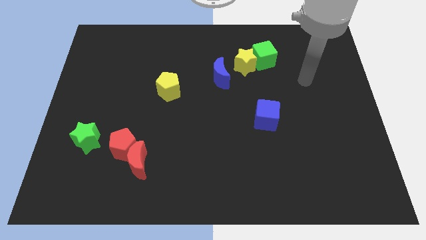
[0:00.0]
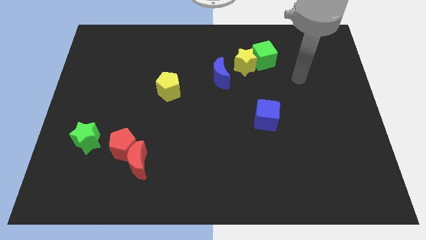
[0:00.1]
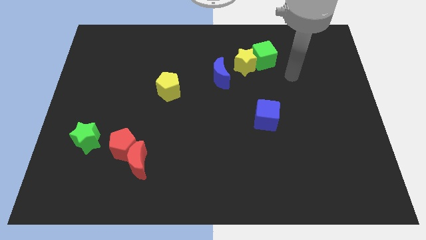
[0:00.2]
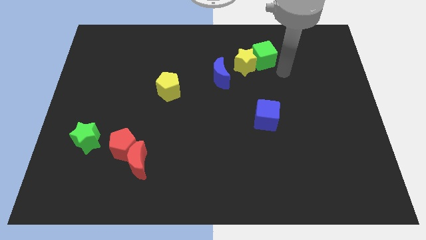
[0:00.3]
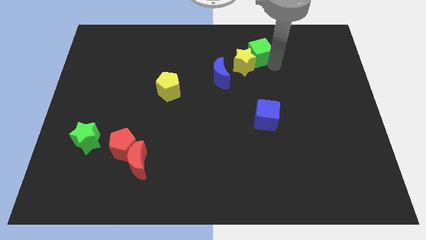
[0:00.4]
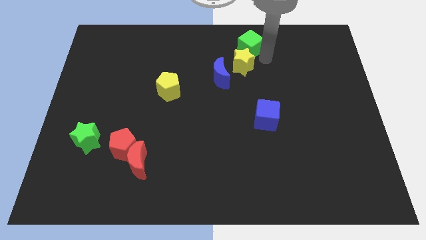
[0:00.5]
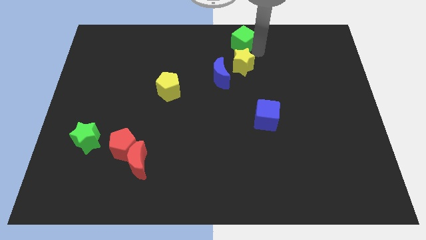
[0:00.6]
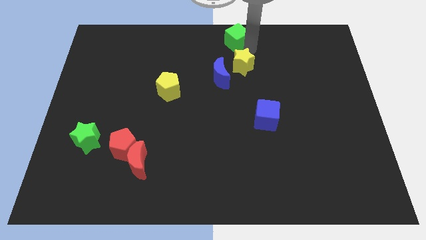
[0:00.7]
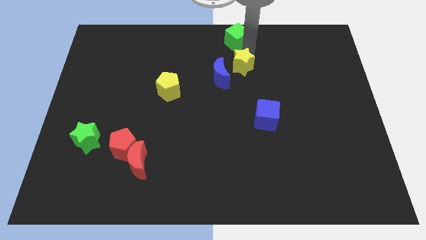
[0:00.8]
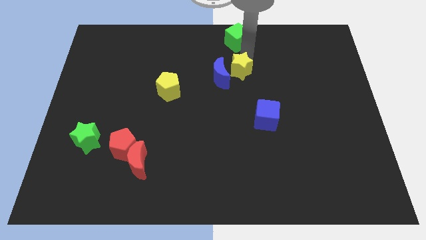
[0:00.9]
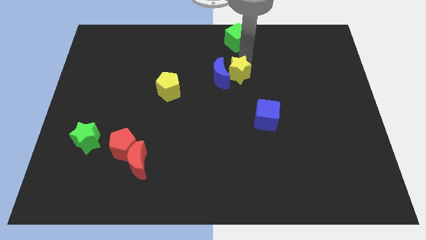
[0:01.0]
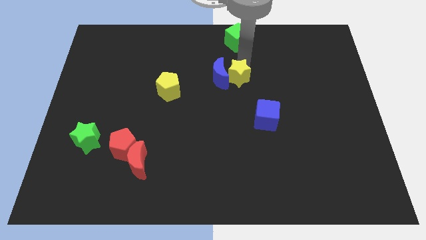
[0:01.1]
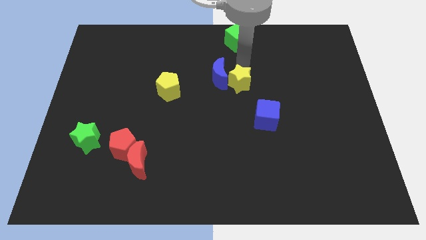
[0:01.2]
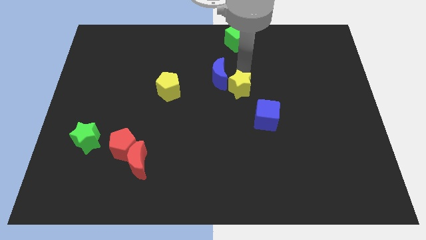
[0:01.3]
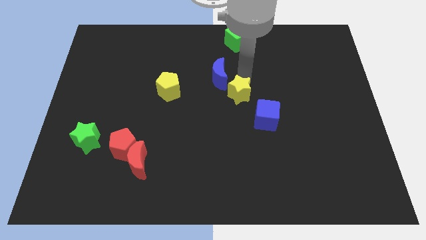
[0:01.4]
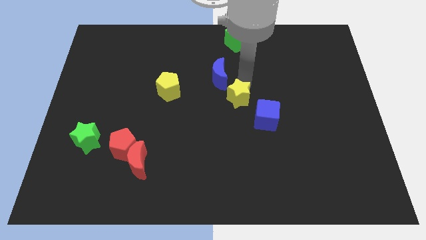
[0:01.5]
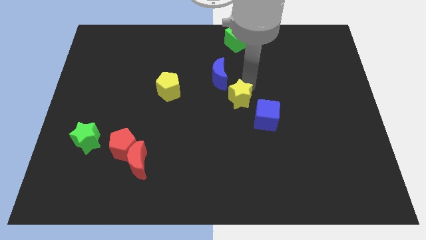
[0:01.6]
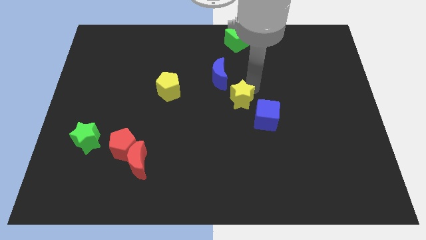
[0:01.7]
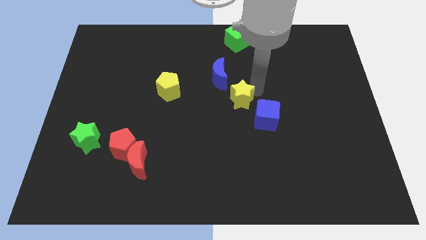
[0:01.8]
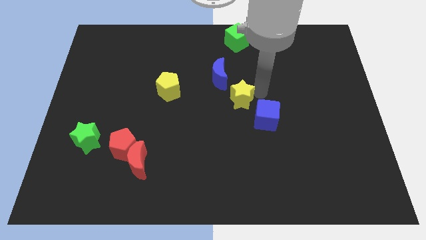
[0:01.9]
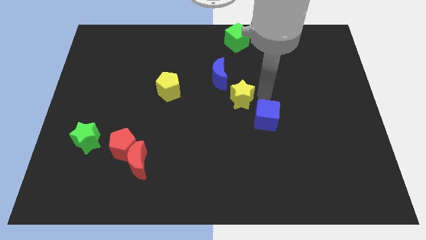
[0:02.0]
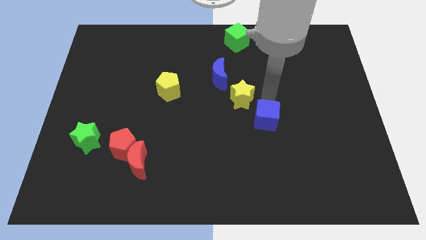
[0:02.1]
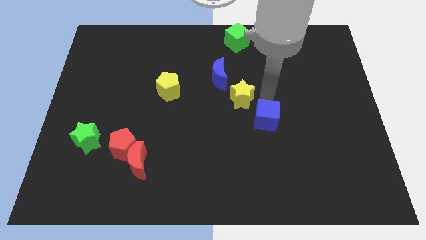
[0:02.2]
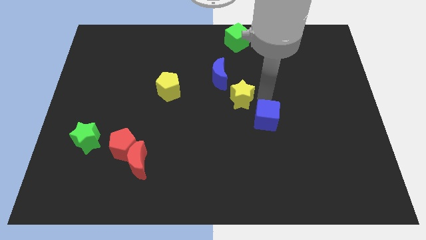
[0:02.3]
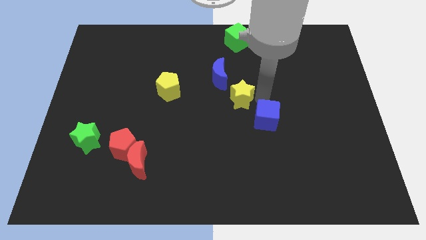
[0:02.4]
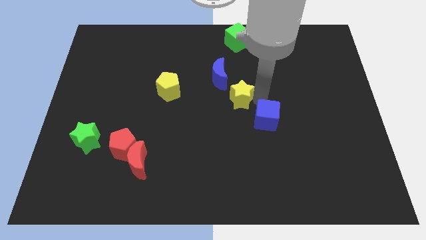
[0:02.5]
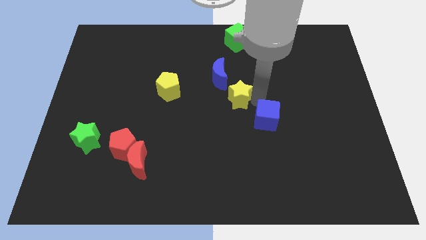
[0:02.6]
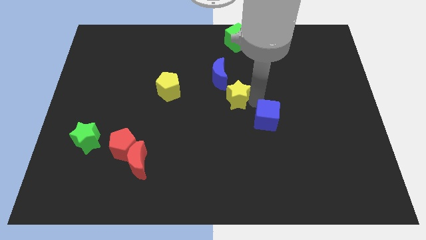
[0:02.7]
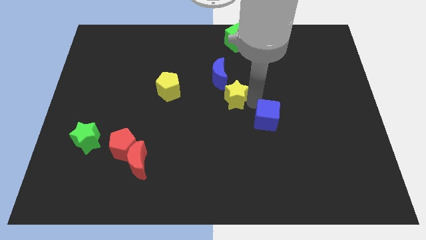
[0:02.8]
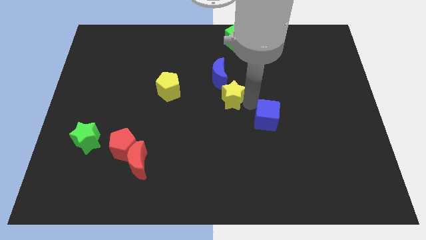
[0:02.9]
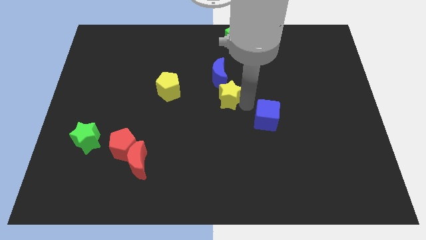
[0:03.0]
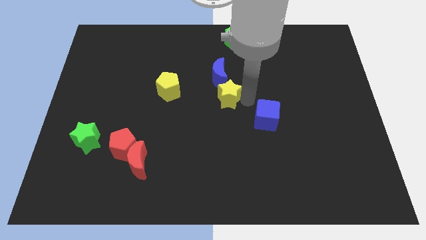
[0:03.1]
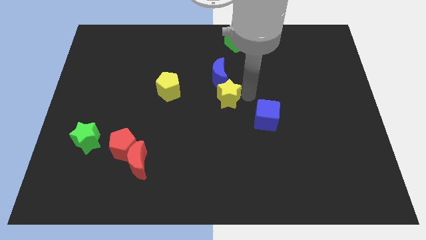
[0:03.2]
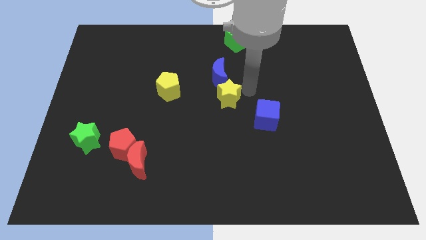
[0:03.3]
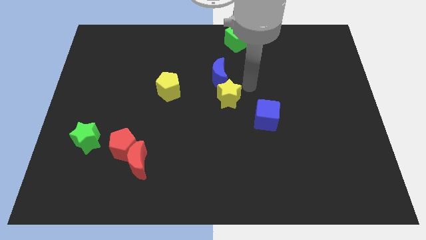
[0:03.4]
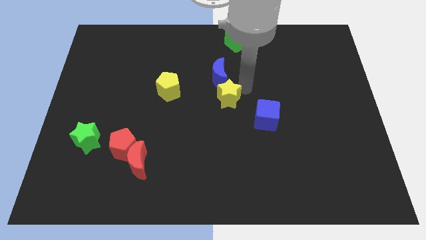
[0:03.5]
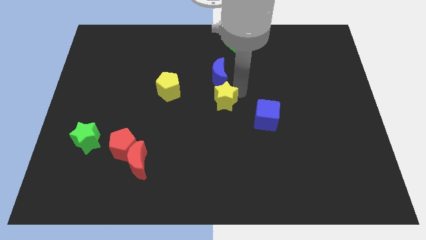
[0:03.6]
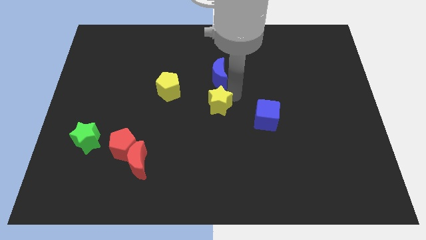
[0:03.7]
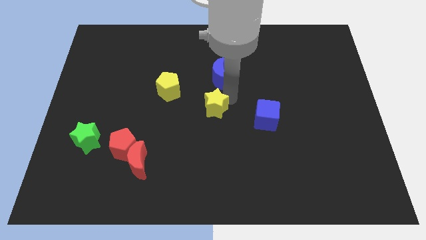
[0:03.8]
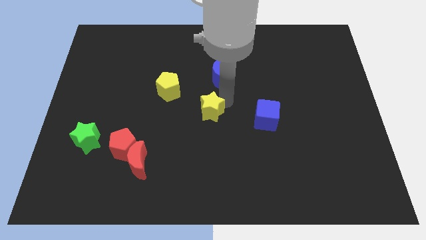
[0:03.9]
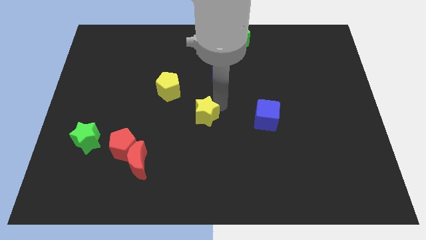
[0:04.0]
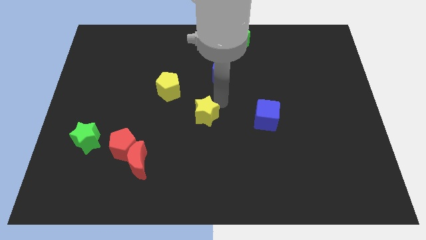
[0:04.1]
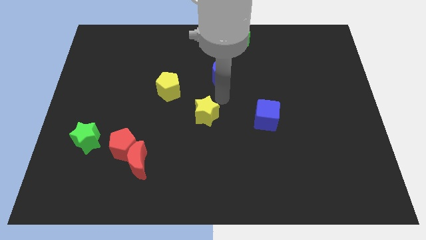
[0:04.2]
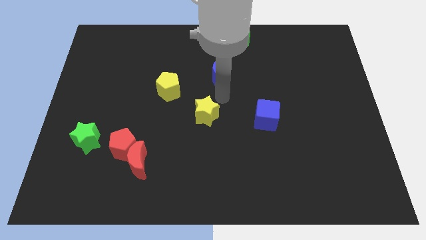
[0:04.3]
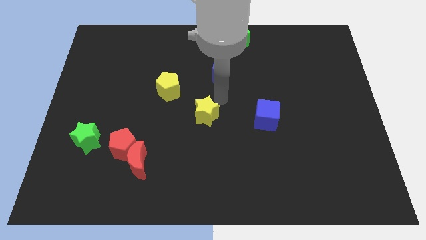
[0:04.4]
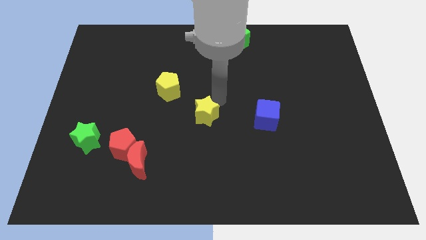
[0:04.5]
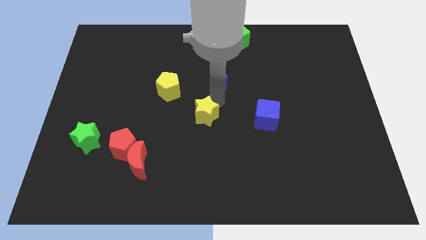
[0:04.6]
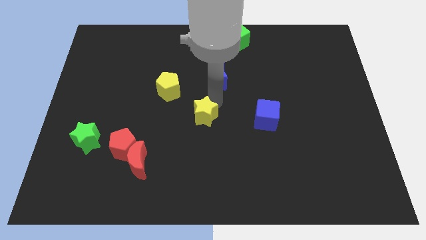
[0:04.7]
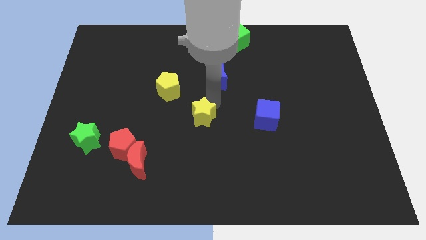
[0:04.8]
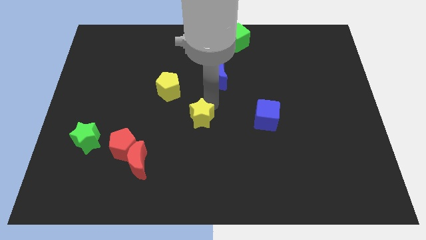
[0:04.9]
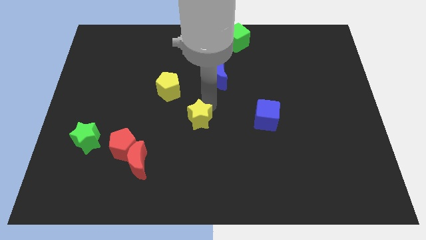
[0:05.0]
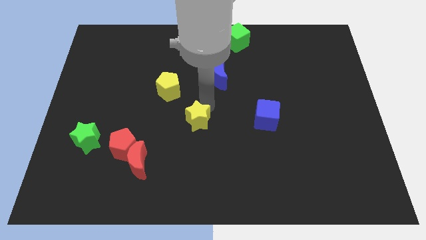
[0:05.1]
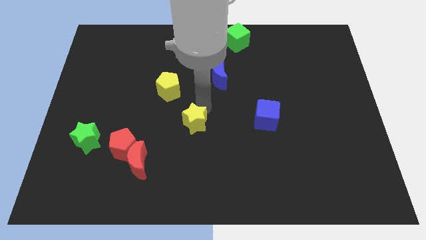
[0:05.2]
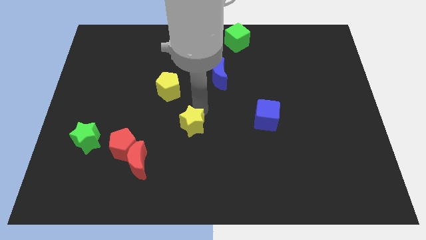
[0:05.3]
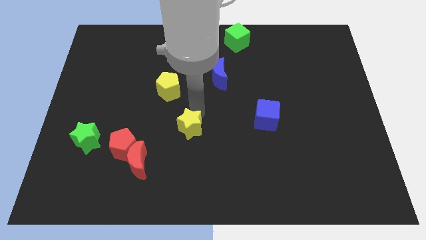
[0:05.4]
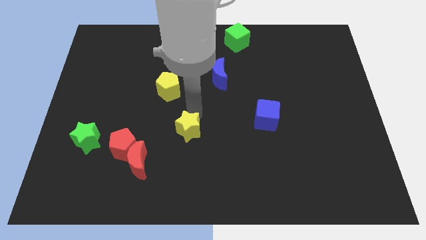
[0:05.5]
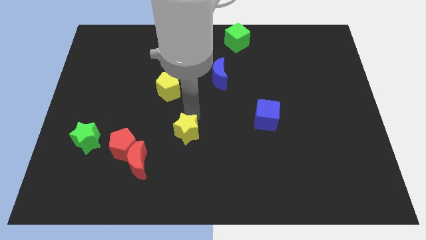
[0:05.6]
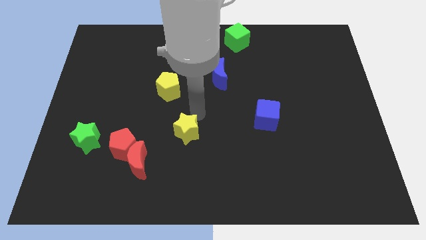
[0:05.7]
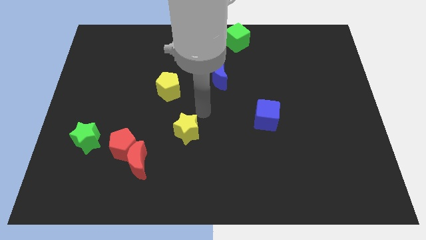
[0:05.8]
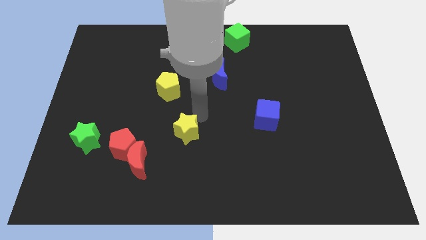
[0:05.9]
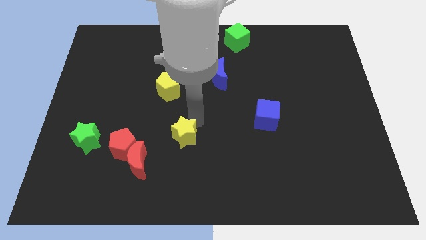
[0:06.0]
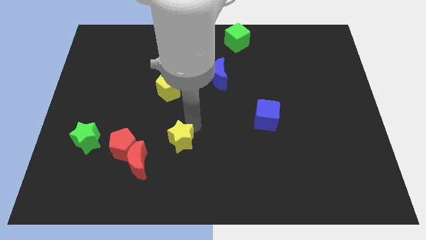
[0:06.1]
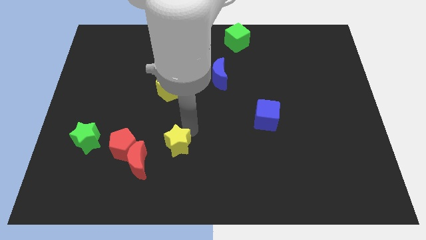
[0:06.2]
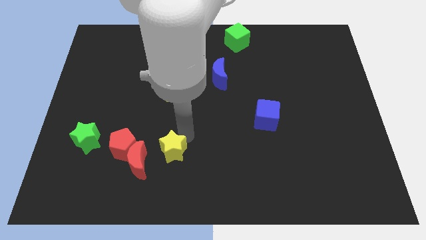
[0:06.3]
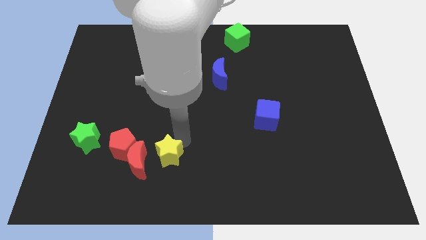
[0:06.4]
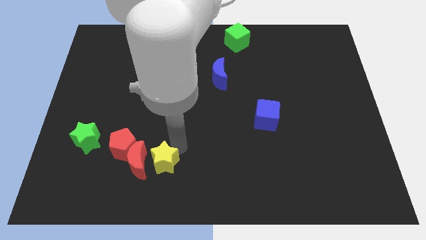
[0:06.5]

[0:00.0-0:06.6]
move the yellow star diagonally down and to the right of the red pentagon

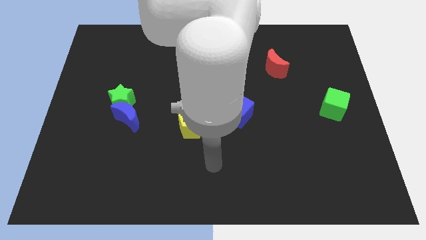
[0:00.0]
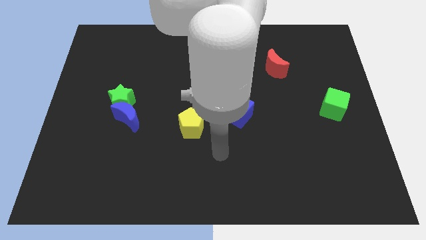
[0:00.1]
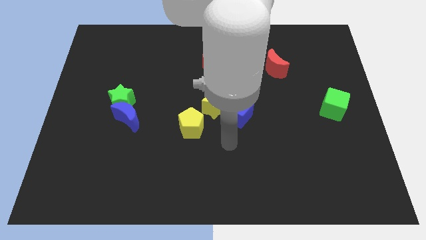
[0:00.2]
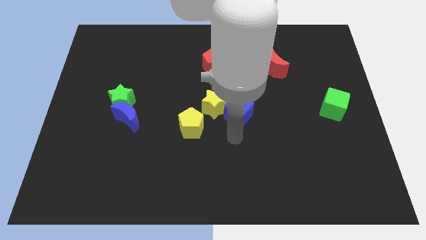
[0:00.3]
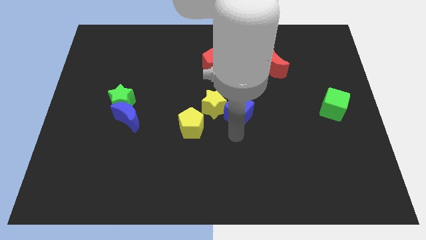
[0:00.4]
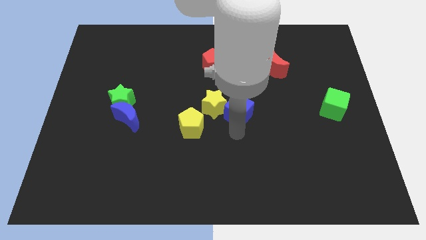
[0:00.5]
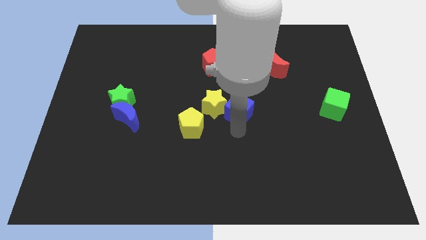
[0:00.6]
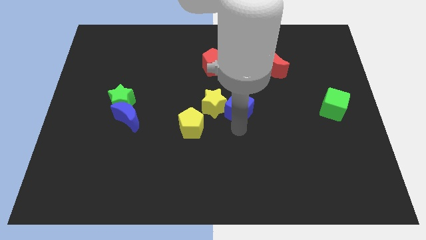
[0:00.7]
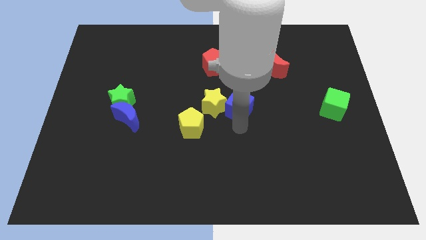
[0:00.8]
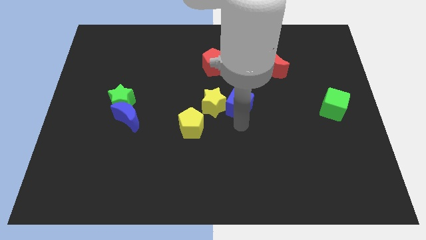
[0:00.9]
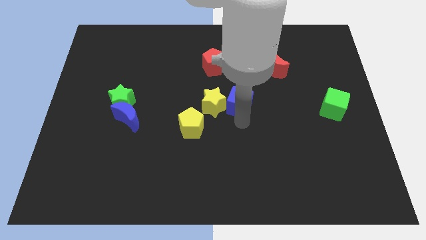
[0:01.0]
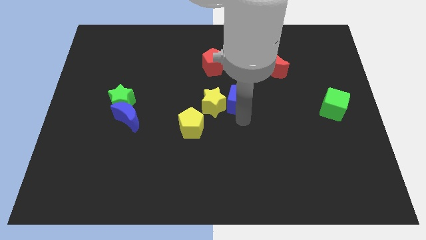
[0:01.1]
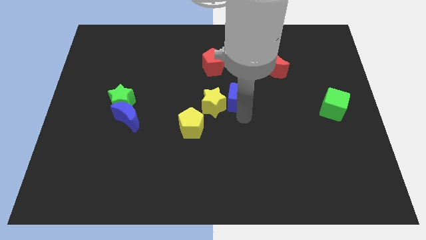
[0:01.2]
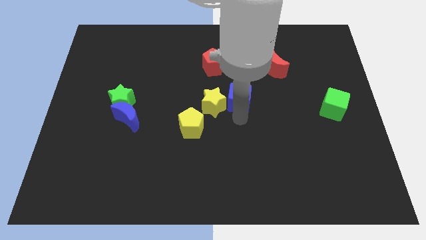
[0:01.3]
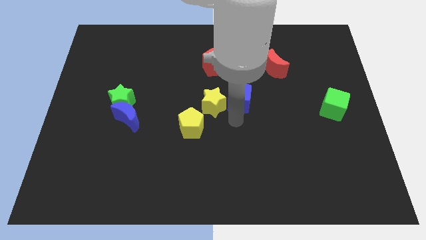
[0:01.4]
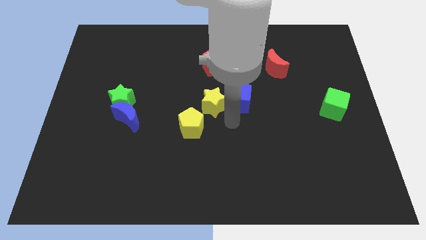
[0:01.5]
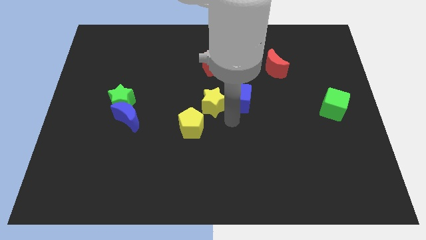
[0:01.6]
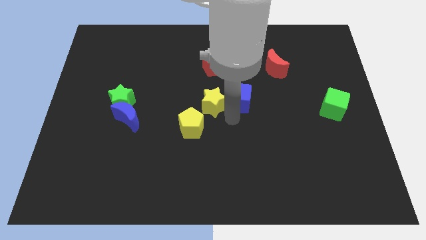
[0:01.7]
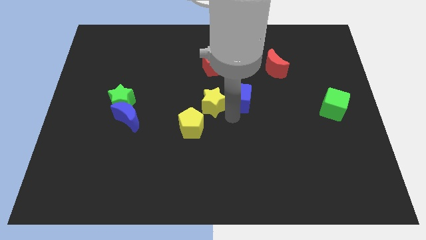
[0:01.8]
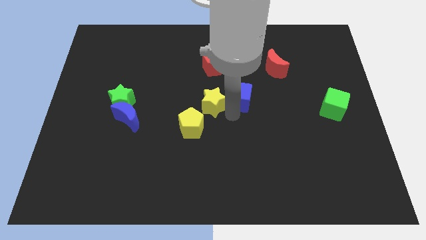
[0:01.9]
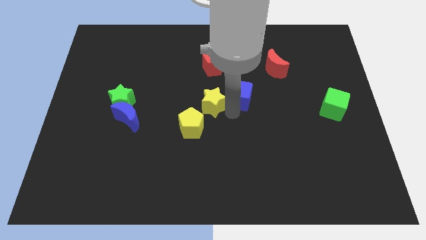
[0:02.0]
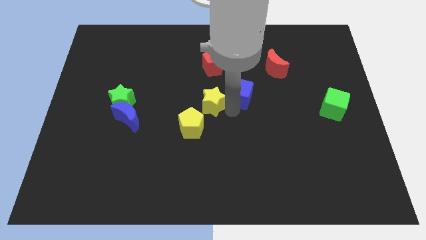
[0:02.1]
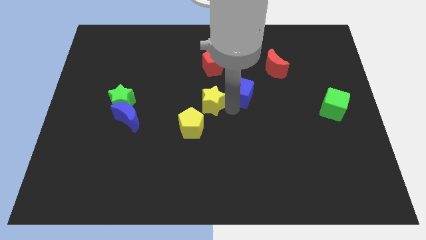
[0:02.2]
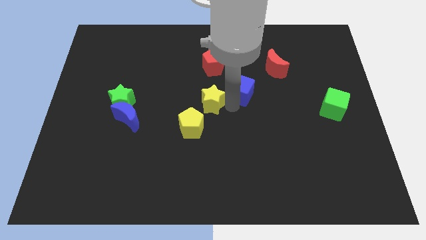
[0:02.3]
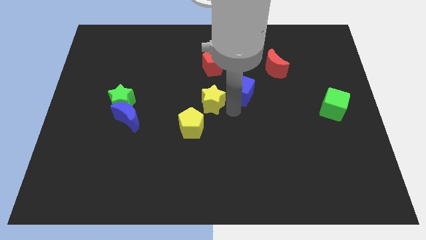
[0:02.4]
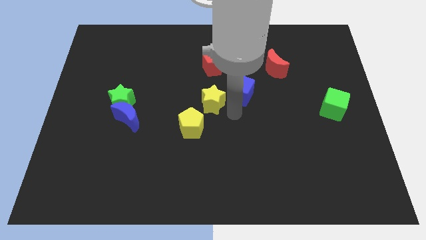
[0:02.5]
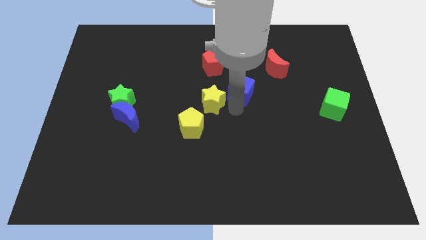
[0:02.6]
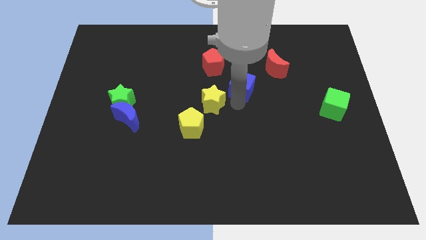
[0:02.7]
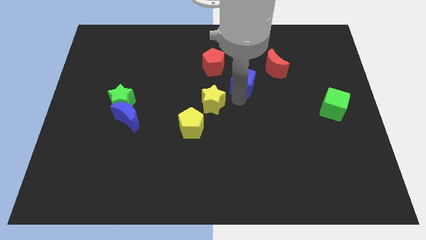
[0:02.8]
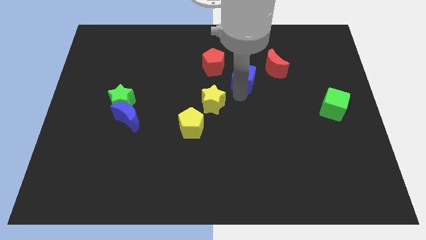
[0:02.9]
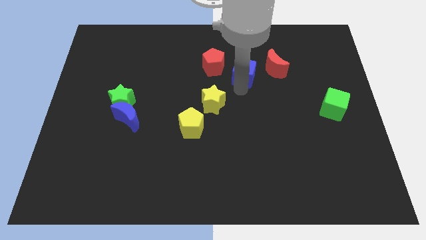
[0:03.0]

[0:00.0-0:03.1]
slide the blue cube just right of the red pentagon
